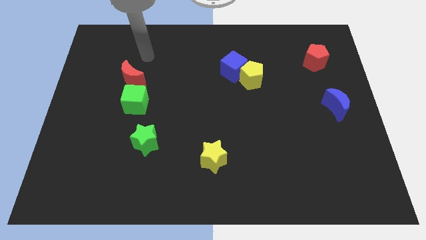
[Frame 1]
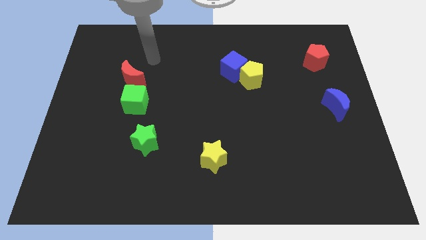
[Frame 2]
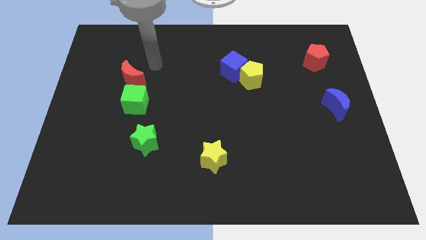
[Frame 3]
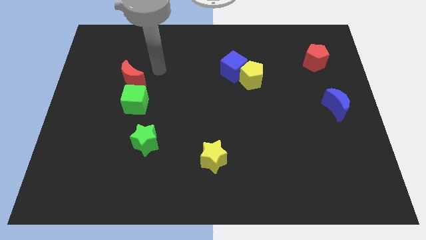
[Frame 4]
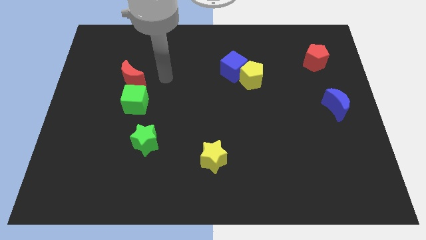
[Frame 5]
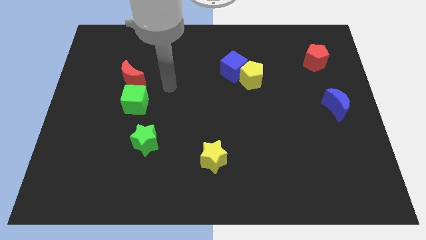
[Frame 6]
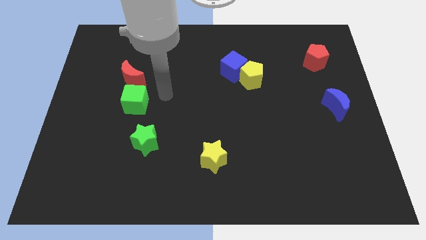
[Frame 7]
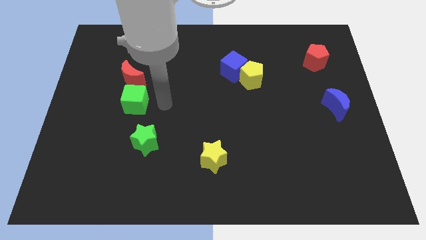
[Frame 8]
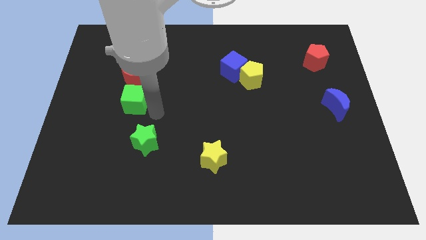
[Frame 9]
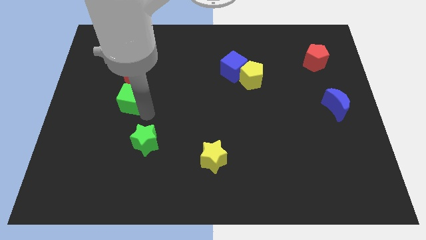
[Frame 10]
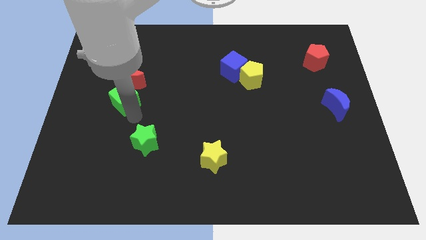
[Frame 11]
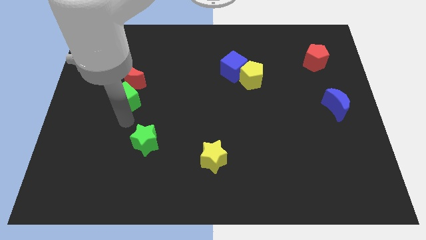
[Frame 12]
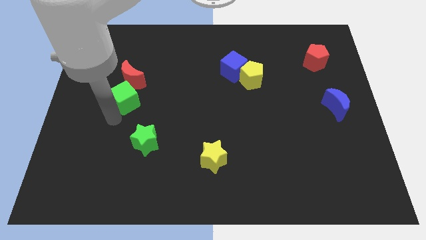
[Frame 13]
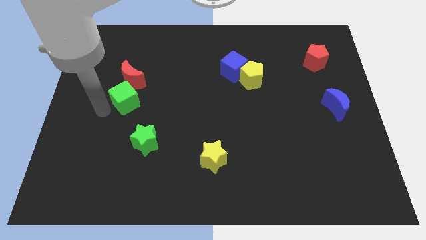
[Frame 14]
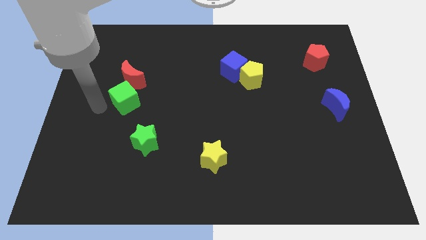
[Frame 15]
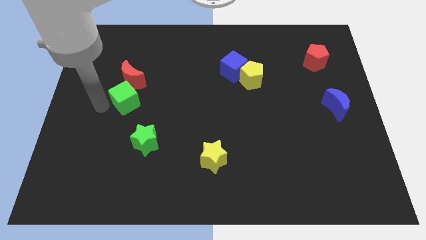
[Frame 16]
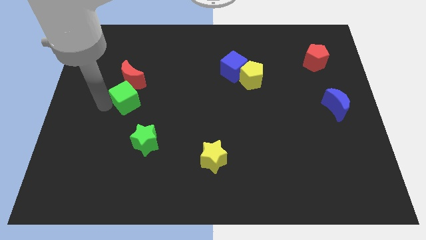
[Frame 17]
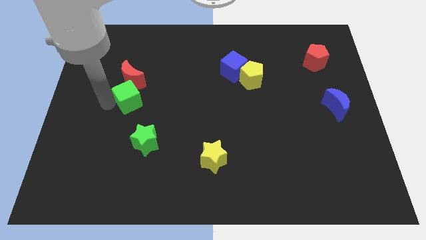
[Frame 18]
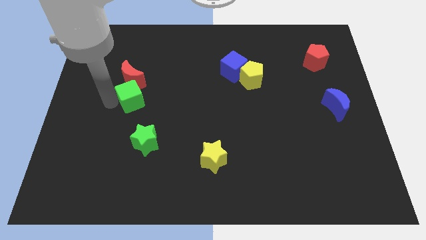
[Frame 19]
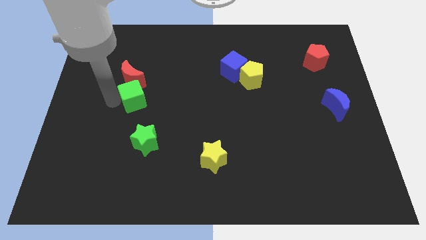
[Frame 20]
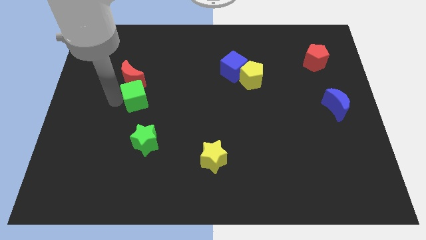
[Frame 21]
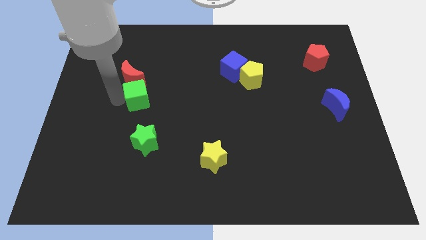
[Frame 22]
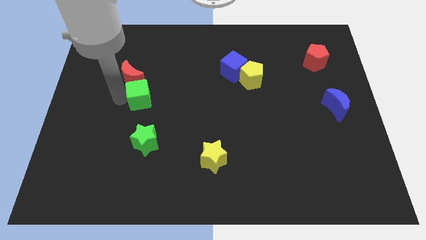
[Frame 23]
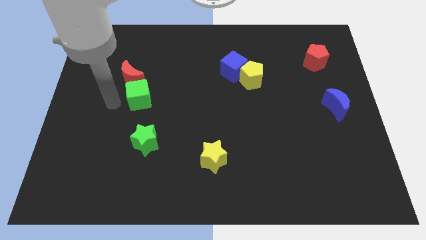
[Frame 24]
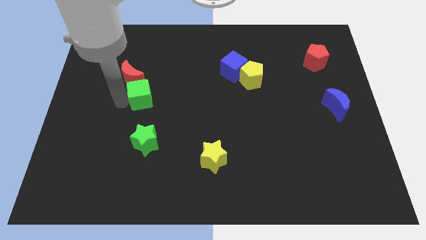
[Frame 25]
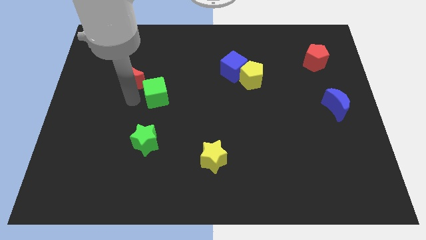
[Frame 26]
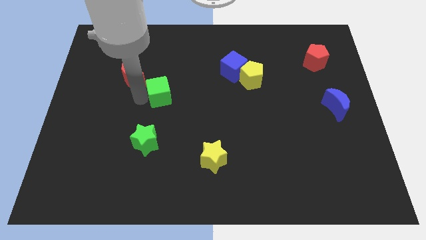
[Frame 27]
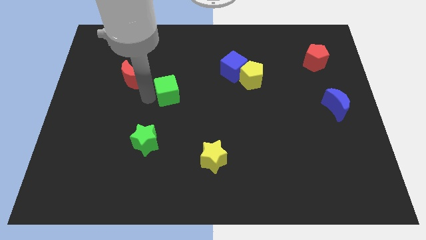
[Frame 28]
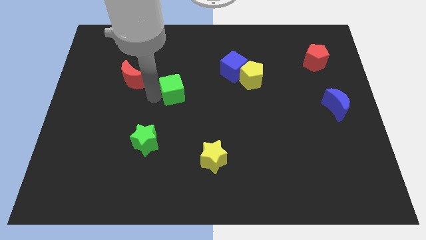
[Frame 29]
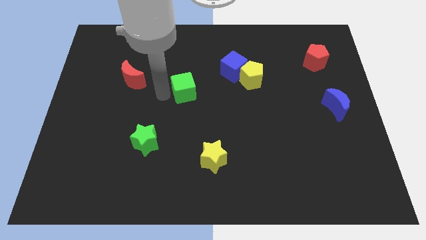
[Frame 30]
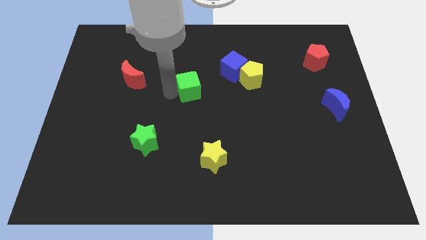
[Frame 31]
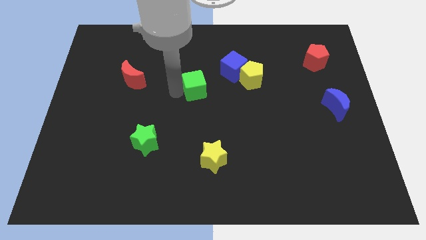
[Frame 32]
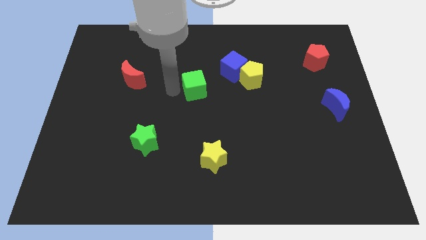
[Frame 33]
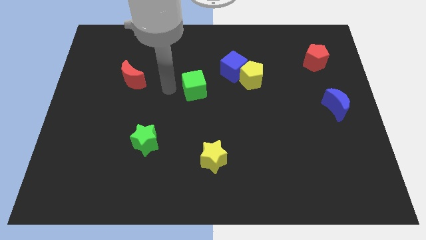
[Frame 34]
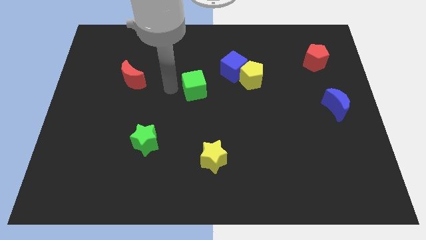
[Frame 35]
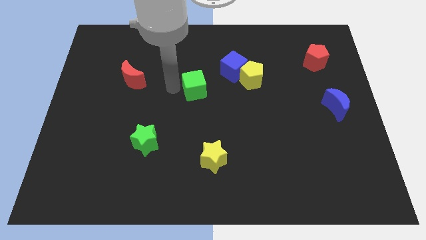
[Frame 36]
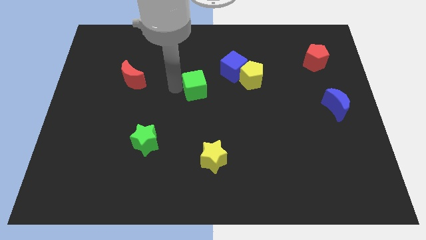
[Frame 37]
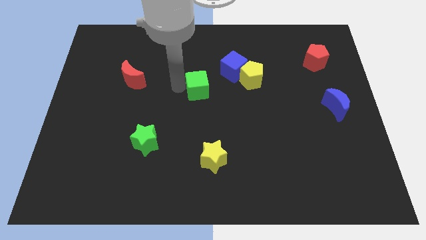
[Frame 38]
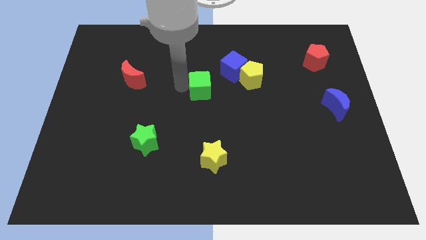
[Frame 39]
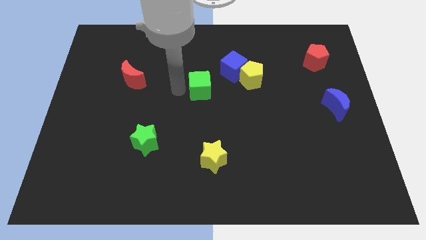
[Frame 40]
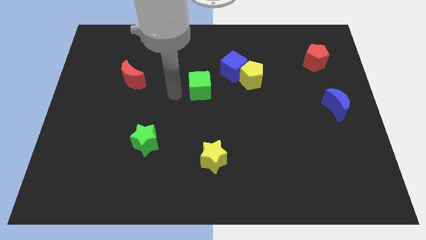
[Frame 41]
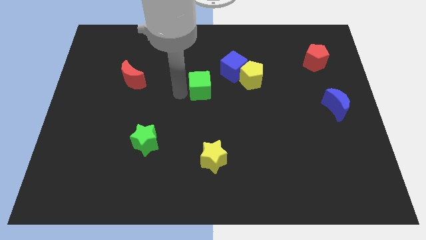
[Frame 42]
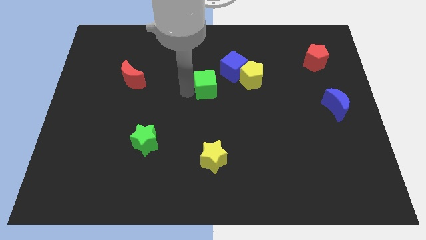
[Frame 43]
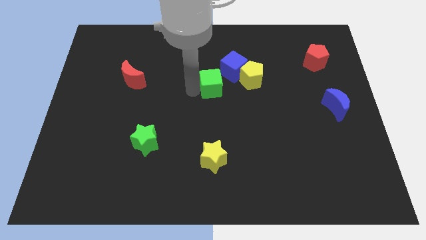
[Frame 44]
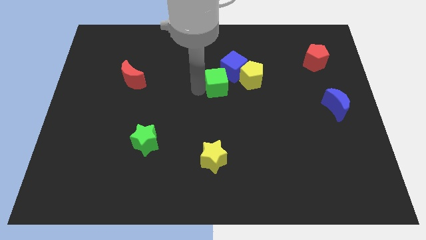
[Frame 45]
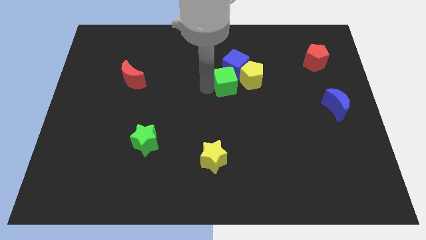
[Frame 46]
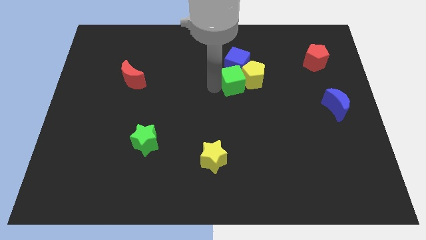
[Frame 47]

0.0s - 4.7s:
slide the green cube to the yellow pentagon

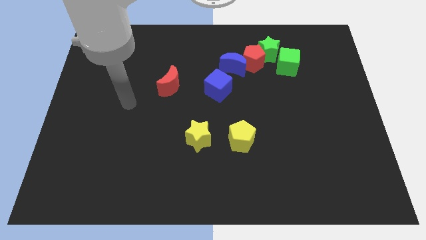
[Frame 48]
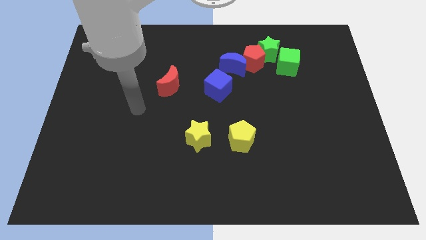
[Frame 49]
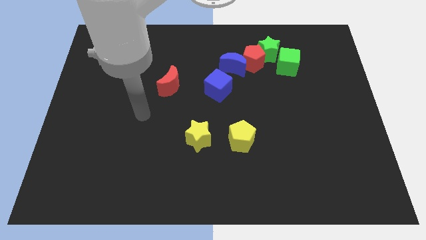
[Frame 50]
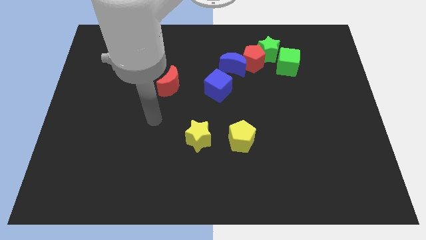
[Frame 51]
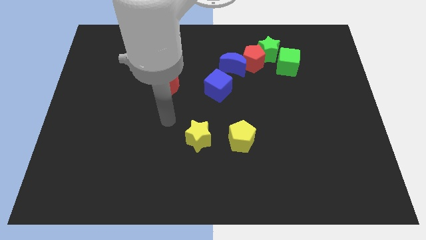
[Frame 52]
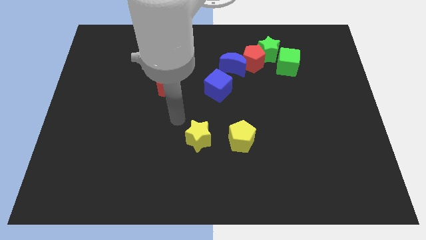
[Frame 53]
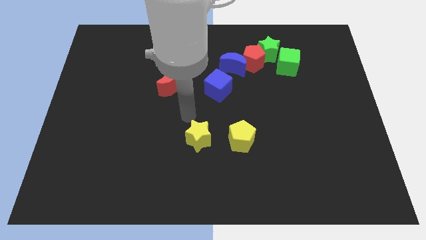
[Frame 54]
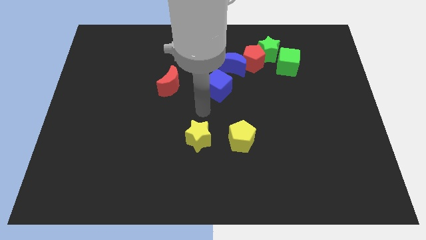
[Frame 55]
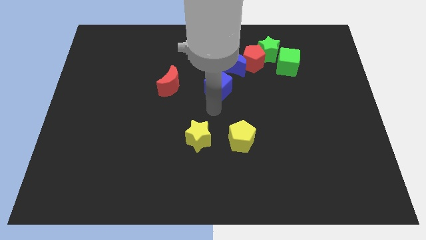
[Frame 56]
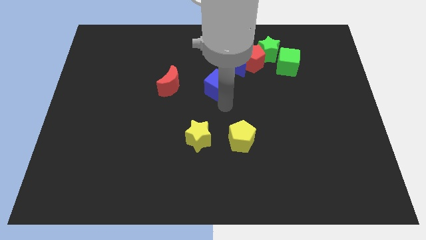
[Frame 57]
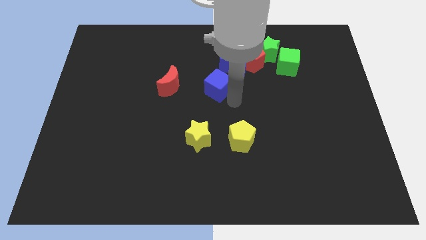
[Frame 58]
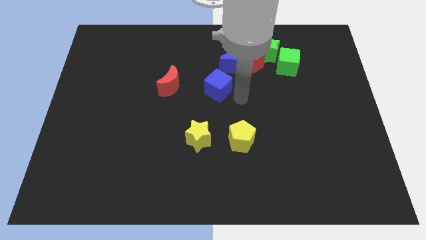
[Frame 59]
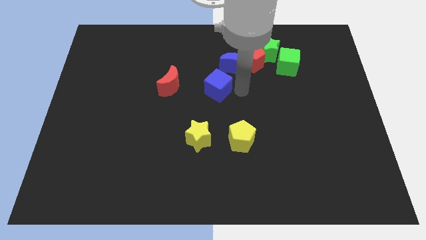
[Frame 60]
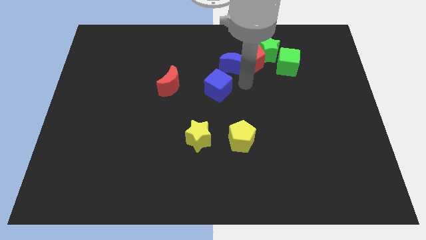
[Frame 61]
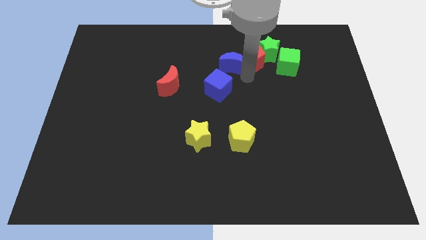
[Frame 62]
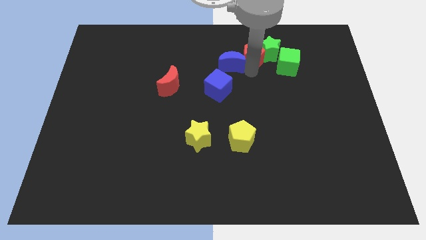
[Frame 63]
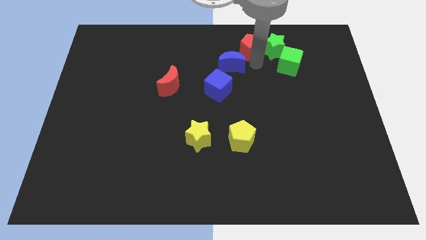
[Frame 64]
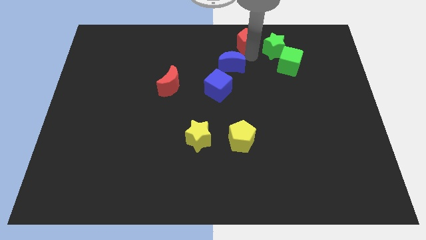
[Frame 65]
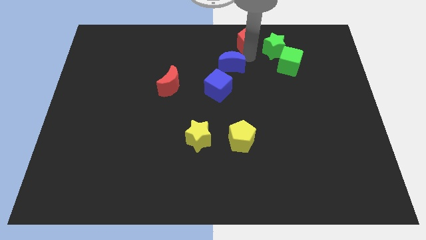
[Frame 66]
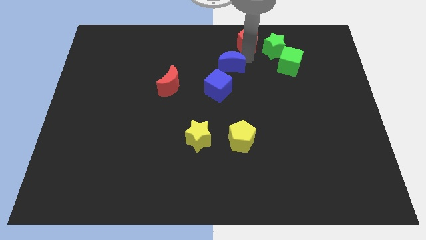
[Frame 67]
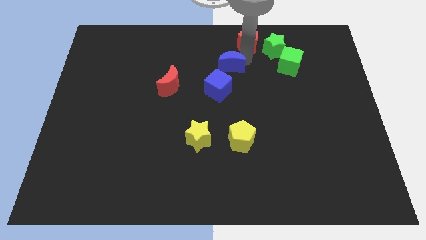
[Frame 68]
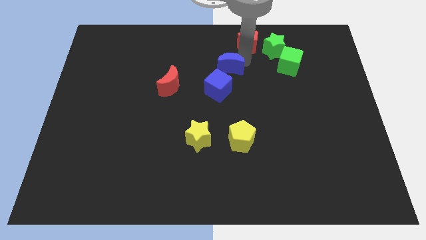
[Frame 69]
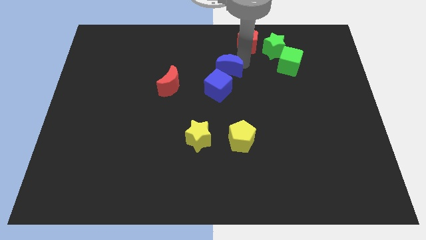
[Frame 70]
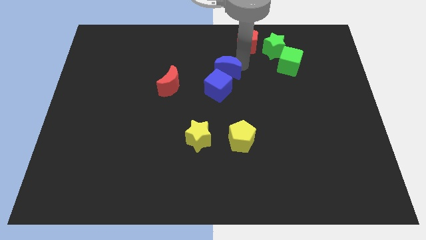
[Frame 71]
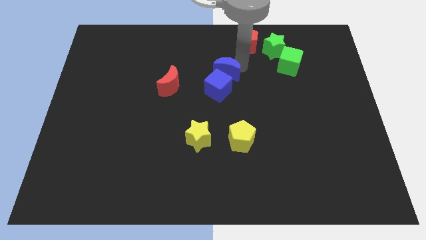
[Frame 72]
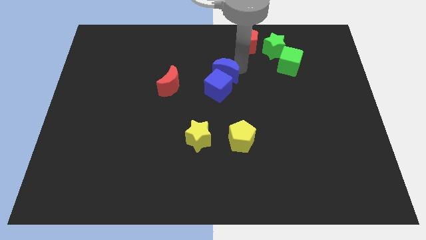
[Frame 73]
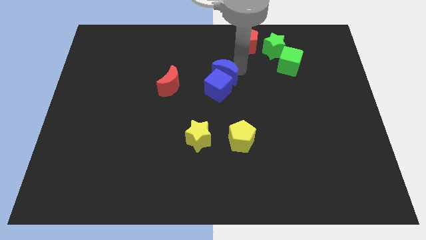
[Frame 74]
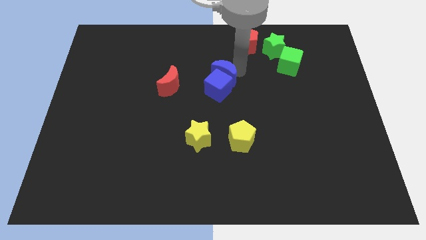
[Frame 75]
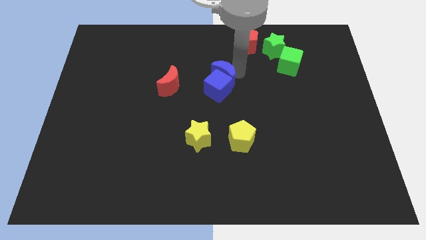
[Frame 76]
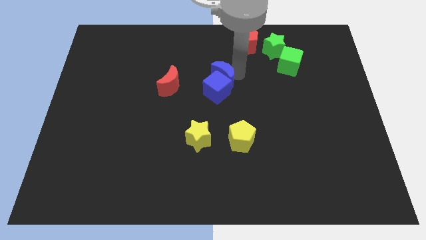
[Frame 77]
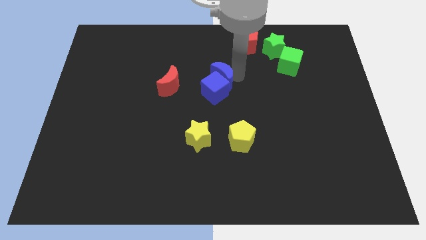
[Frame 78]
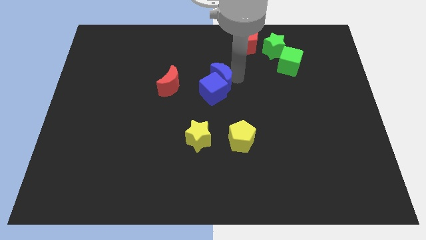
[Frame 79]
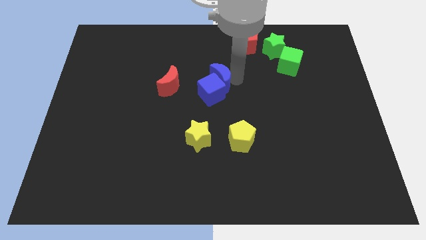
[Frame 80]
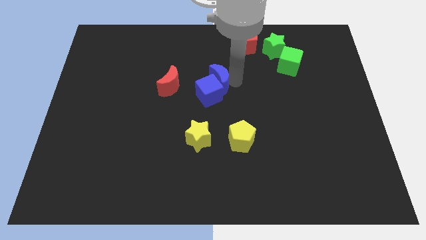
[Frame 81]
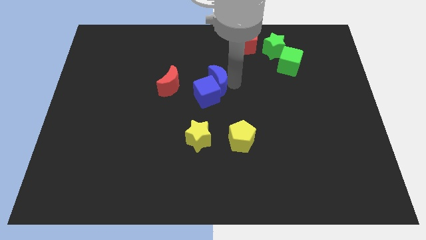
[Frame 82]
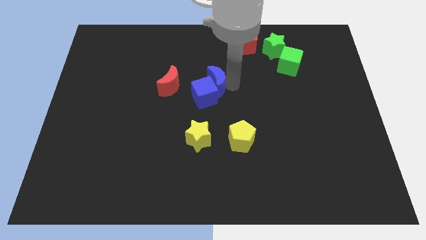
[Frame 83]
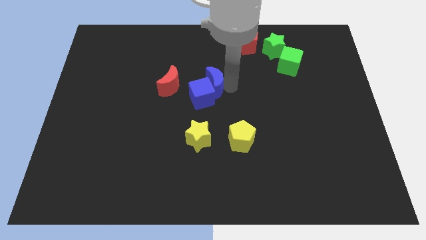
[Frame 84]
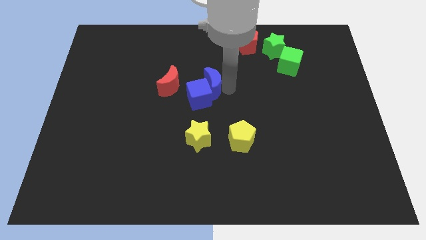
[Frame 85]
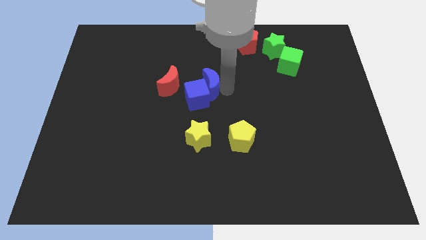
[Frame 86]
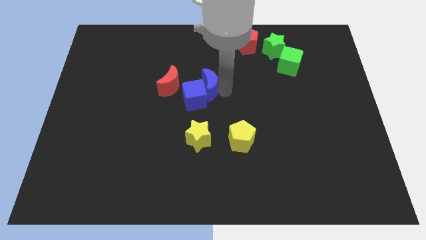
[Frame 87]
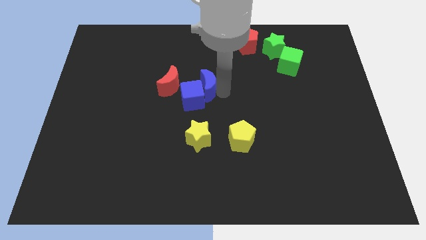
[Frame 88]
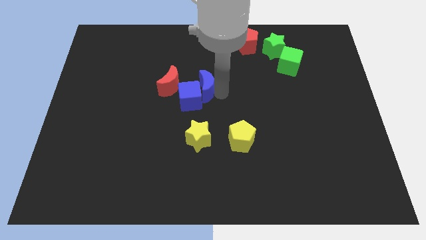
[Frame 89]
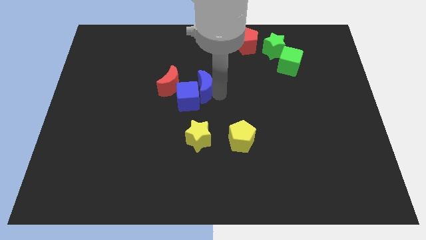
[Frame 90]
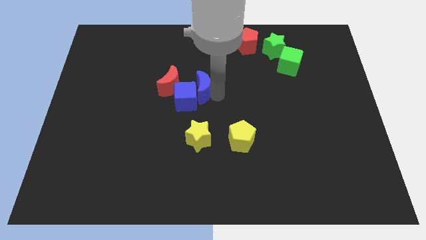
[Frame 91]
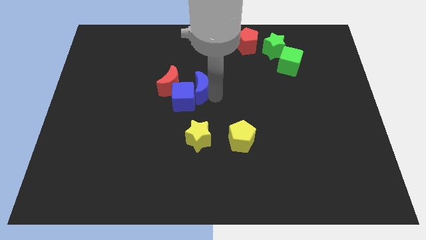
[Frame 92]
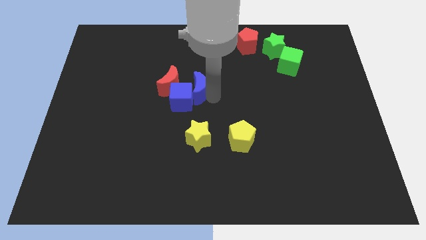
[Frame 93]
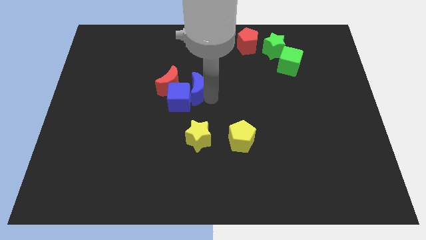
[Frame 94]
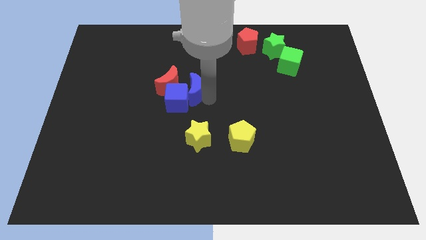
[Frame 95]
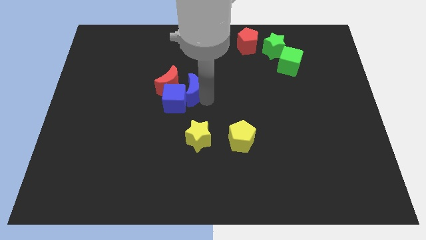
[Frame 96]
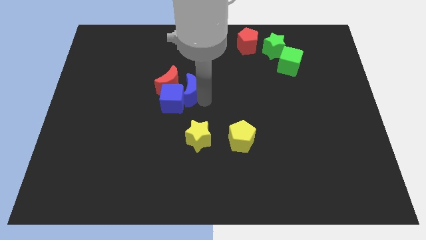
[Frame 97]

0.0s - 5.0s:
slide the blue moon to the red moon
